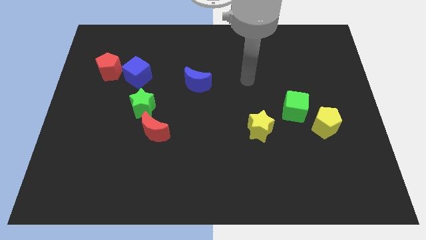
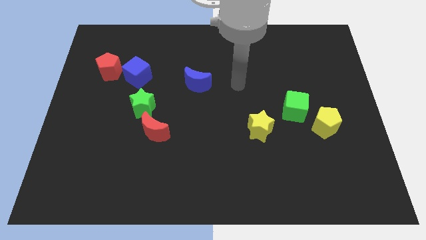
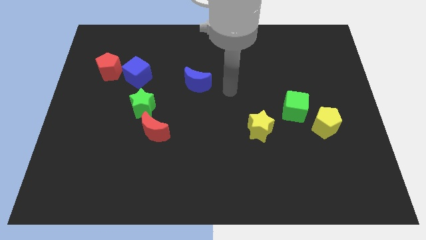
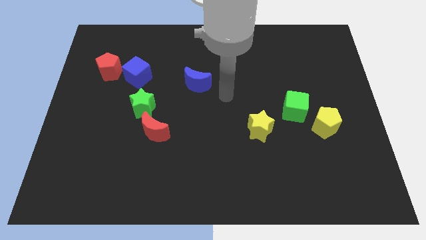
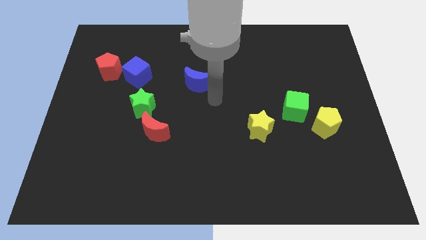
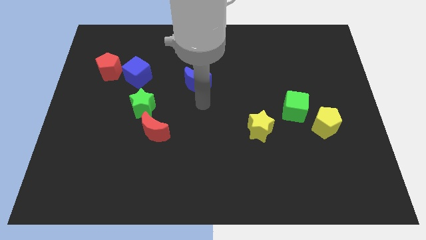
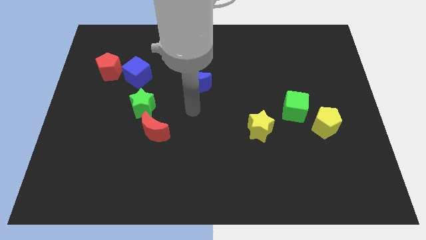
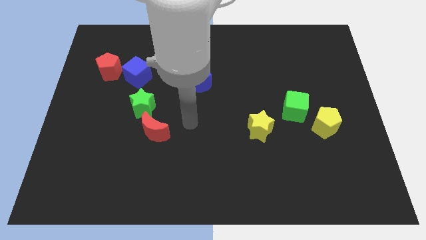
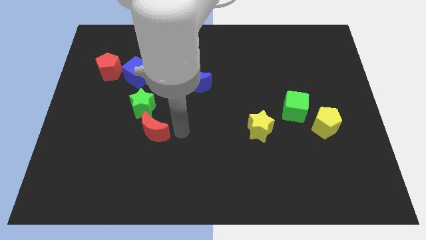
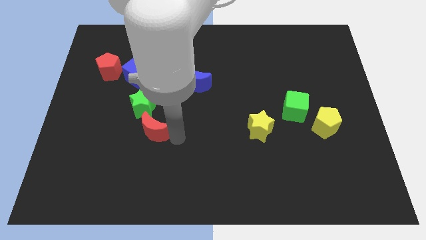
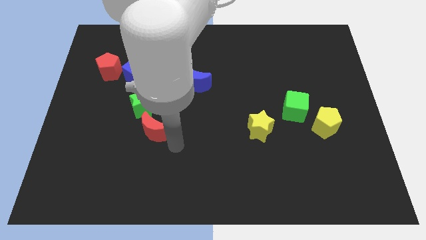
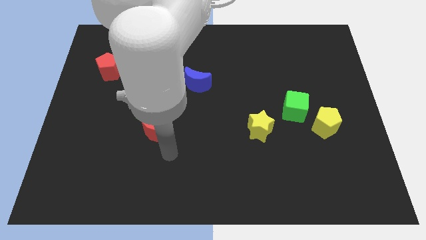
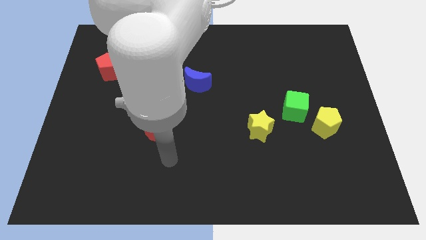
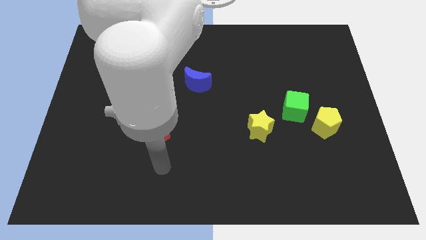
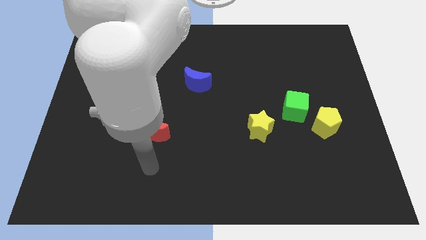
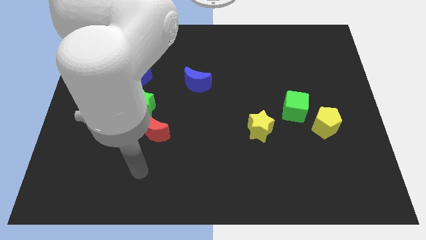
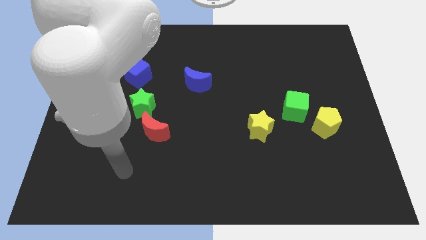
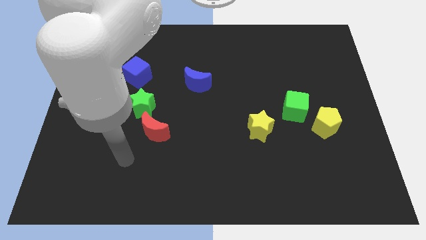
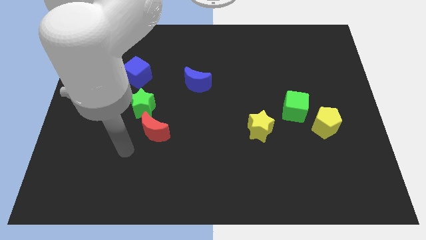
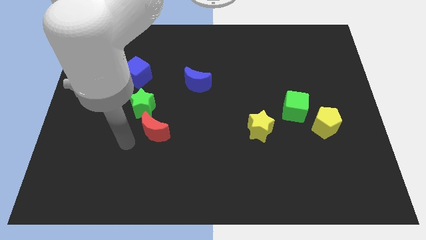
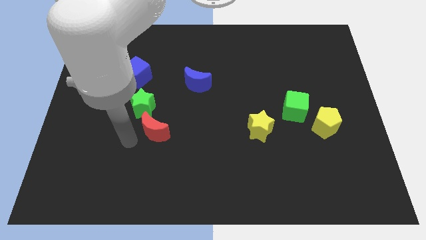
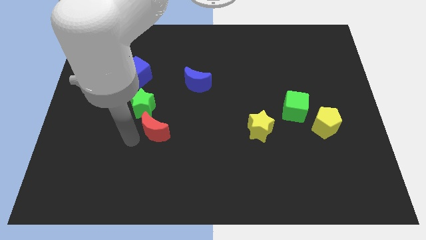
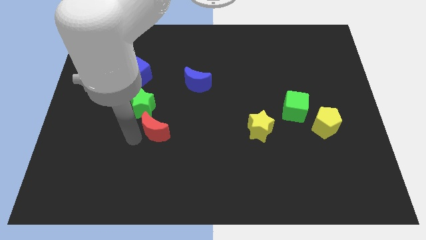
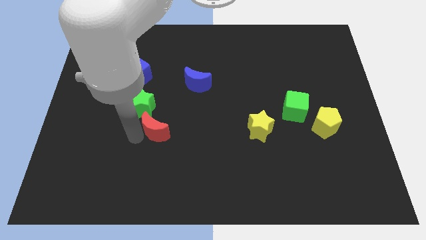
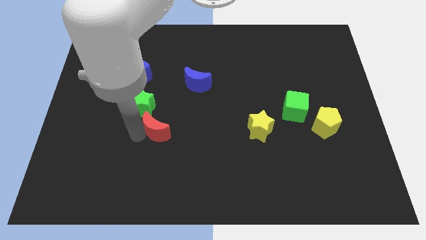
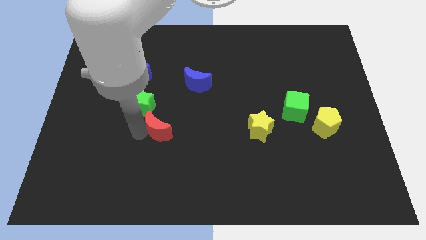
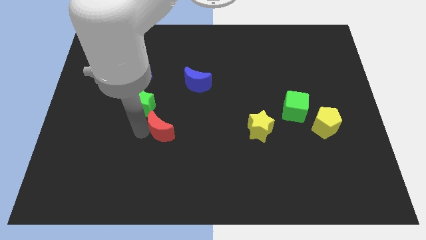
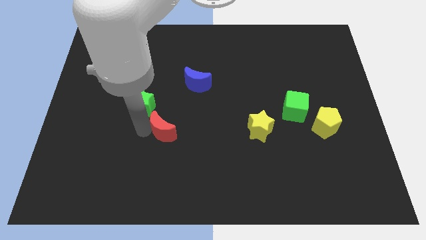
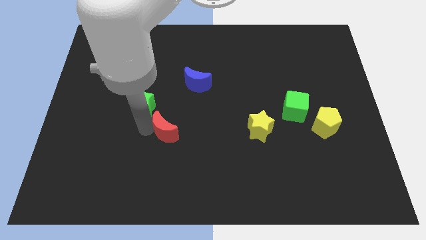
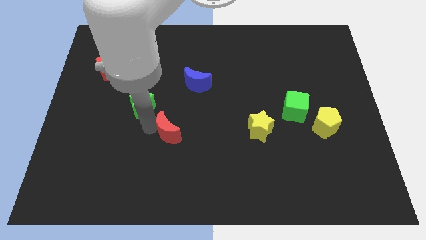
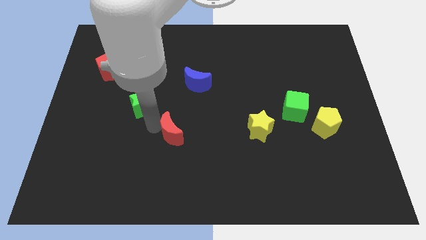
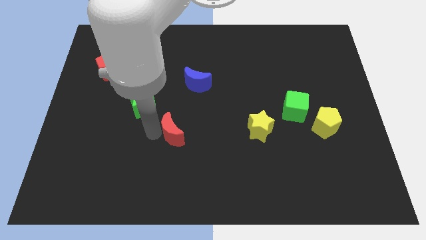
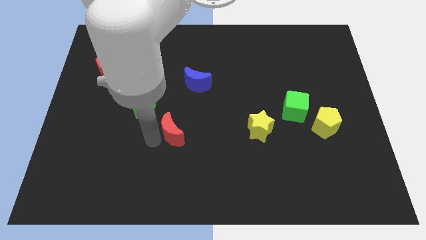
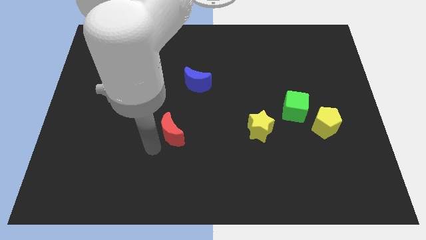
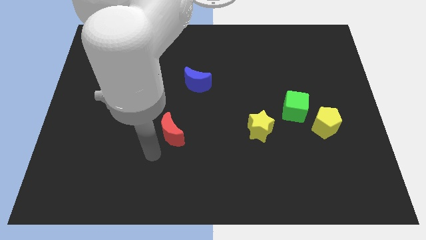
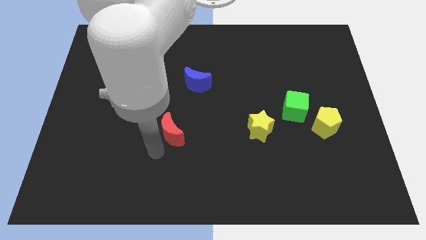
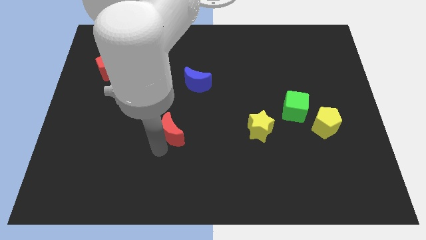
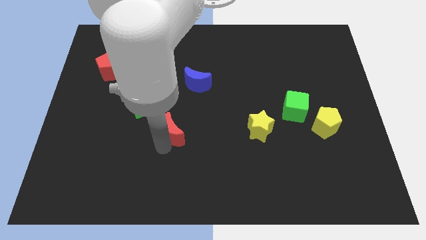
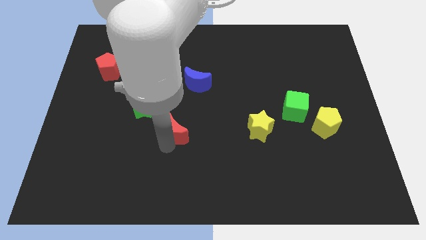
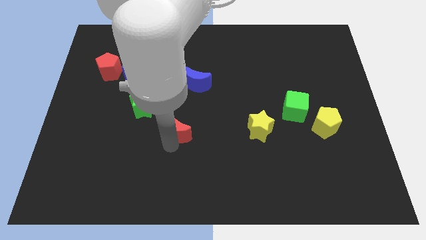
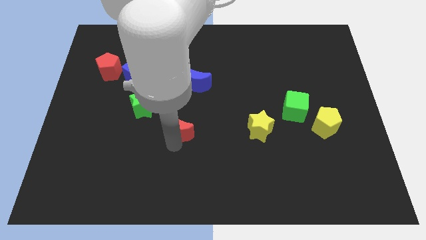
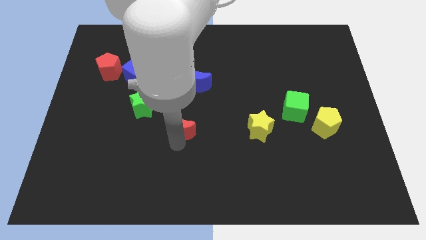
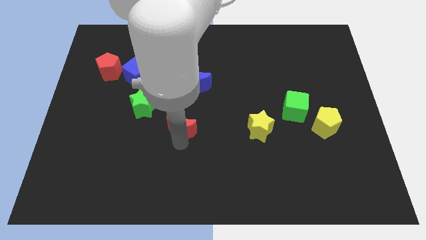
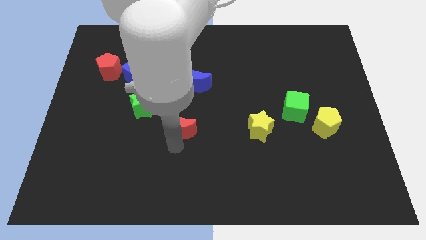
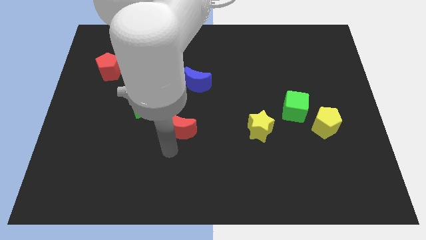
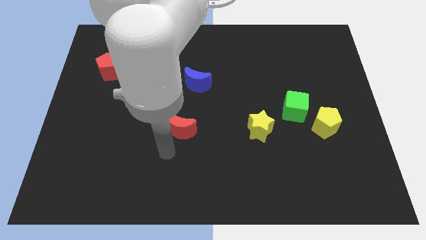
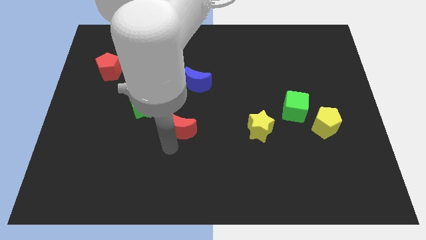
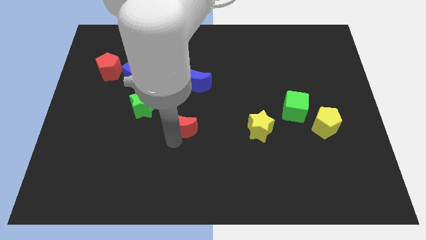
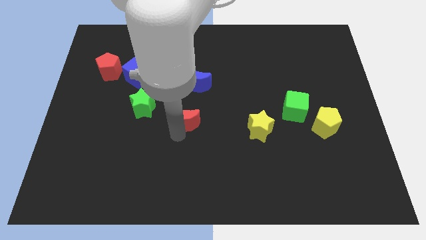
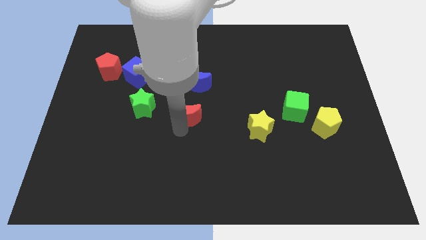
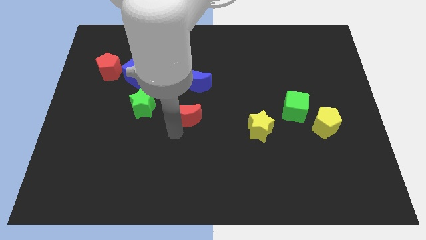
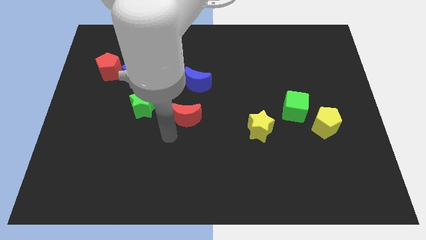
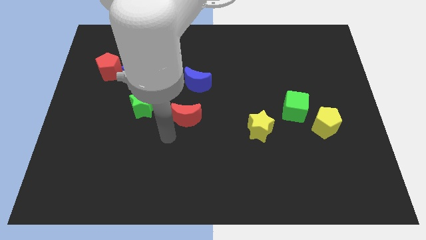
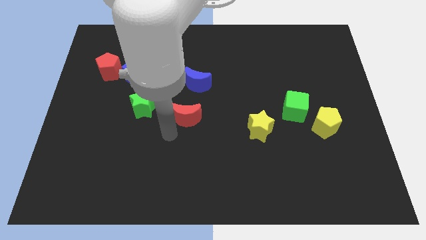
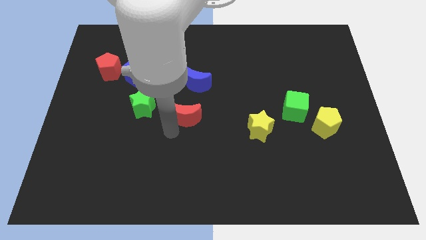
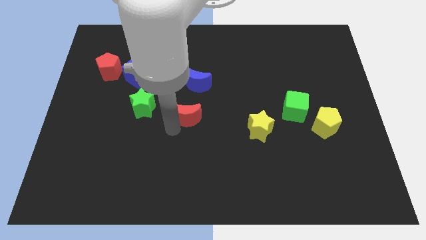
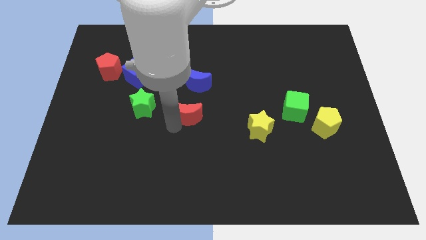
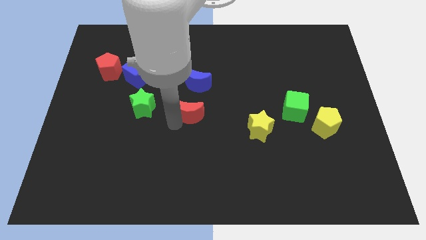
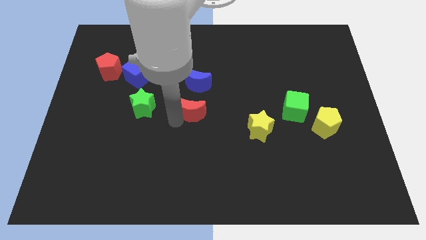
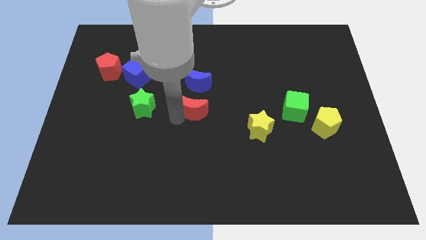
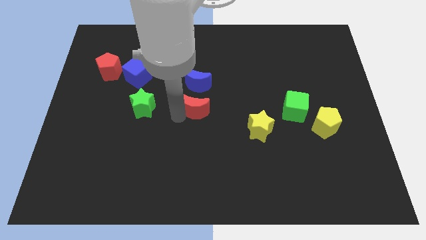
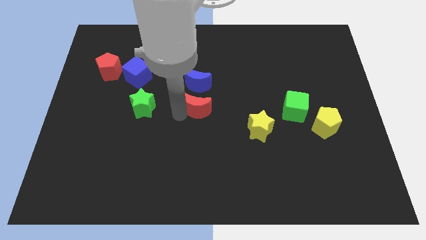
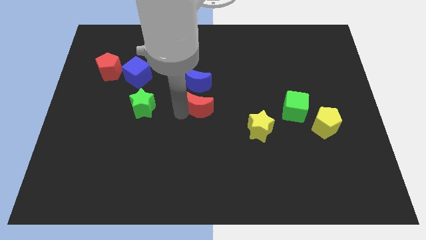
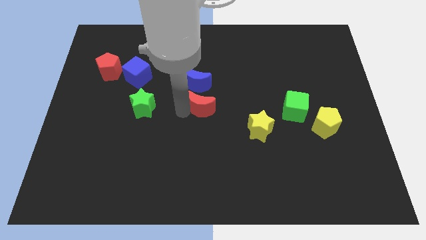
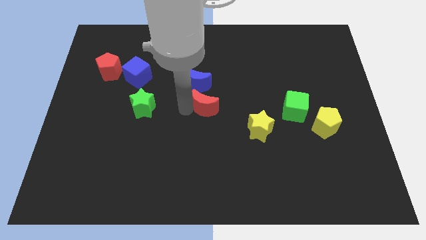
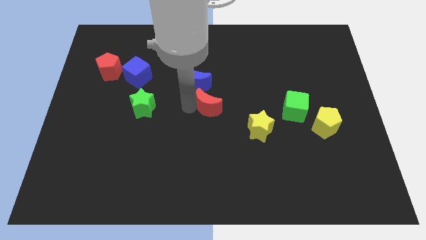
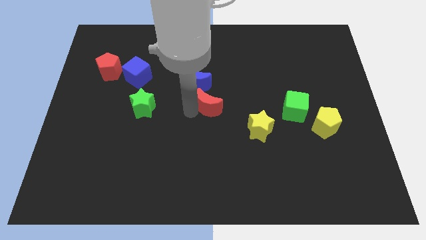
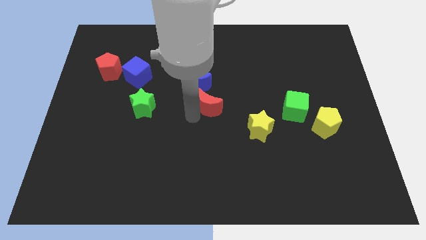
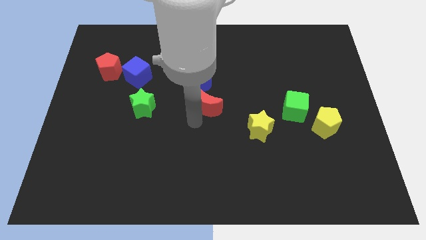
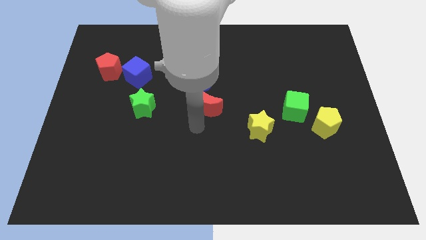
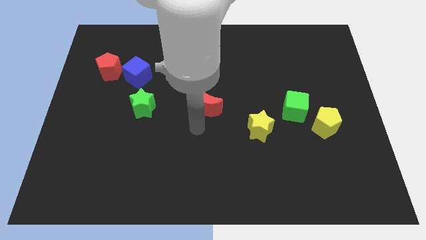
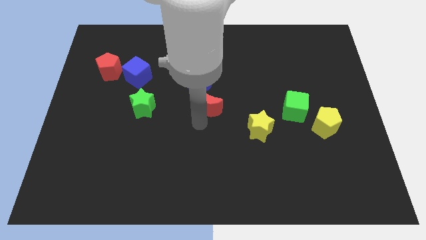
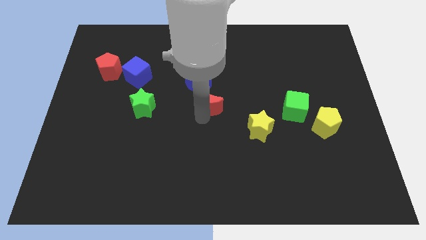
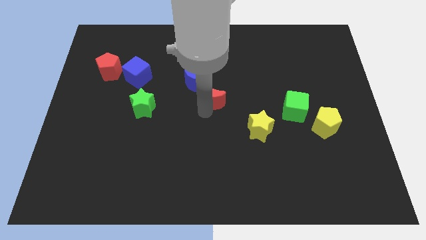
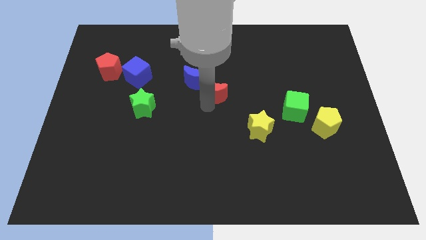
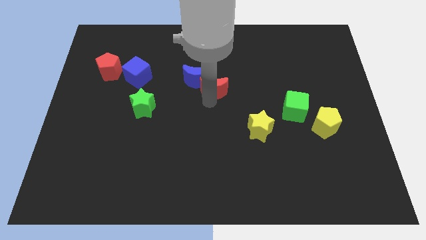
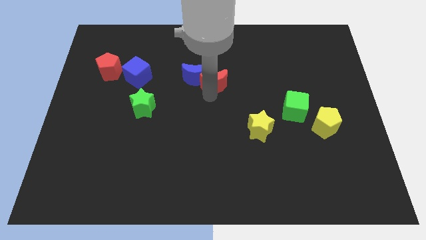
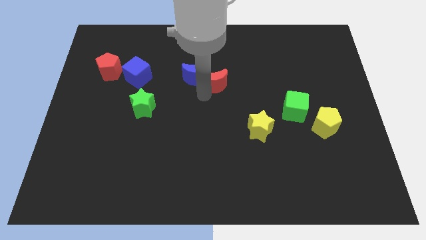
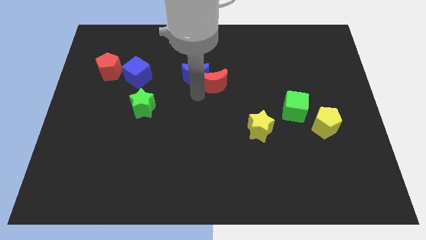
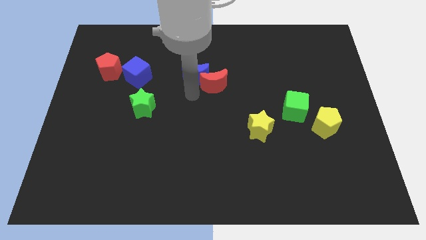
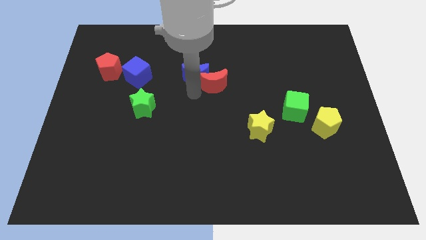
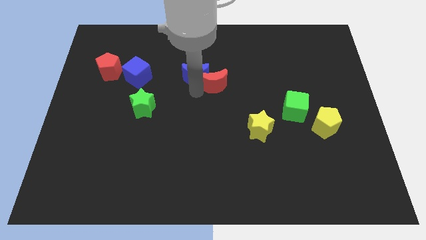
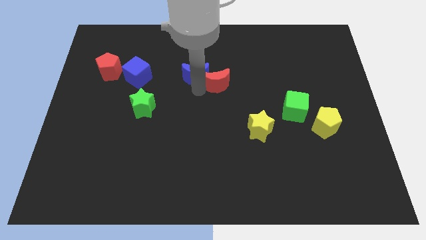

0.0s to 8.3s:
move the red moon upwards and to the right
